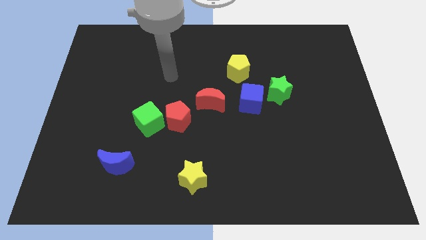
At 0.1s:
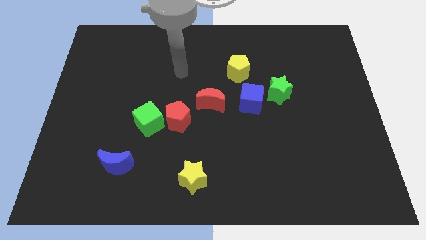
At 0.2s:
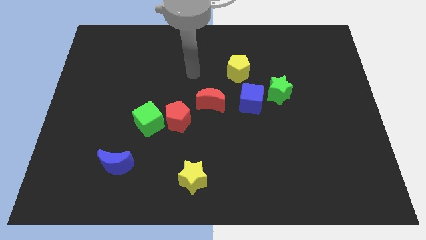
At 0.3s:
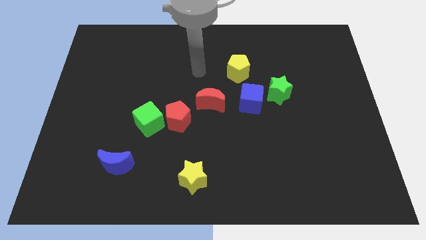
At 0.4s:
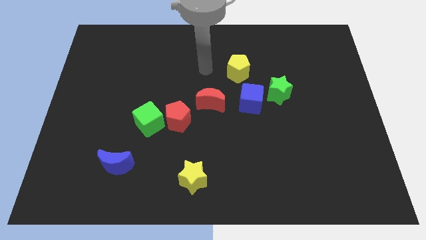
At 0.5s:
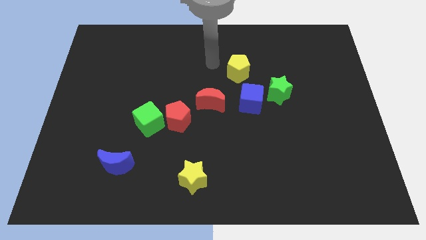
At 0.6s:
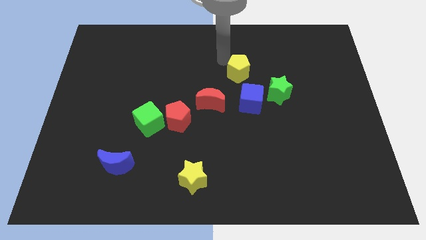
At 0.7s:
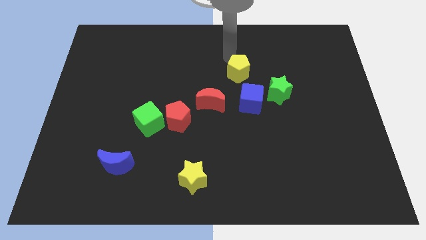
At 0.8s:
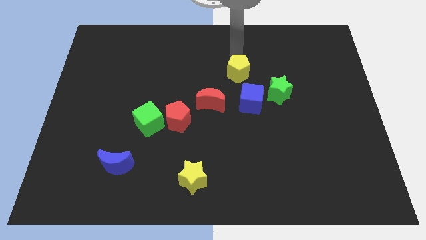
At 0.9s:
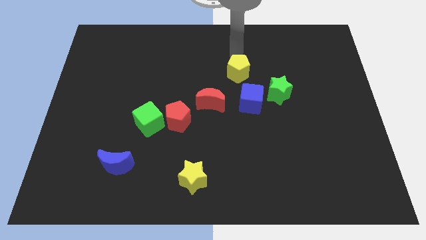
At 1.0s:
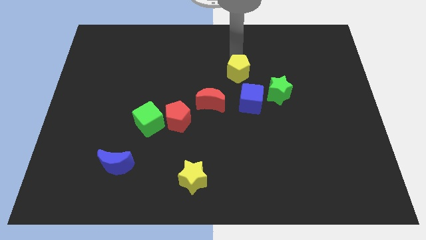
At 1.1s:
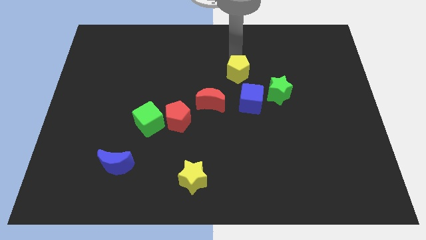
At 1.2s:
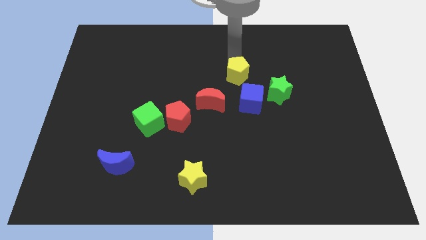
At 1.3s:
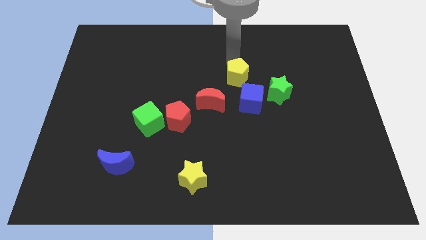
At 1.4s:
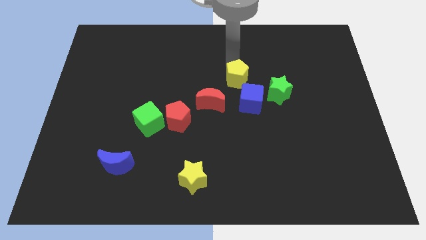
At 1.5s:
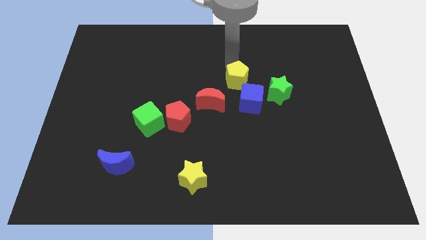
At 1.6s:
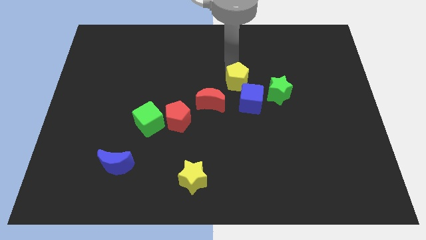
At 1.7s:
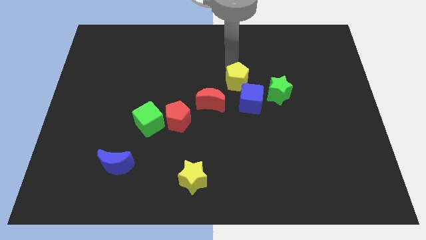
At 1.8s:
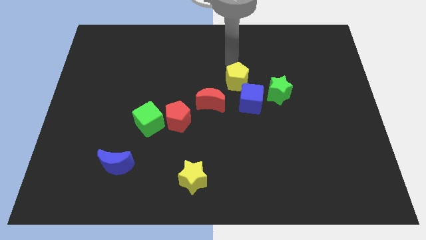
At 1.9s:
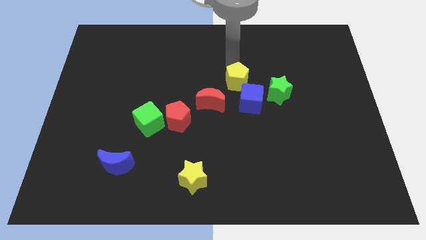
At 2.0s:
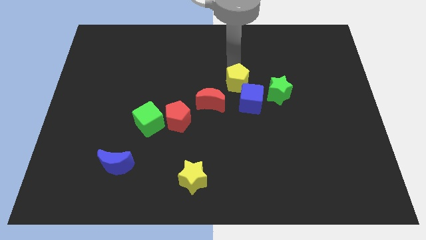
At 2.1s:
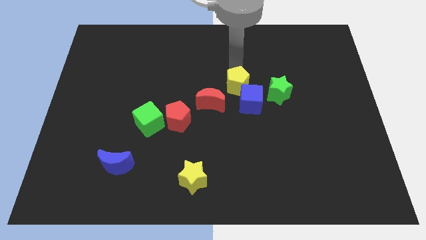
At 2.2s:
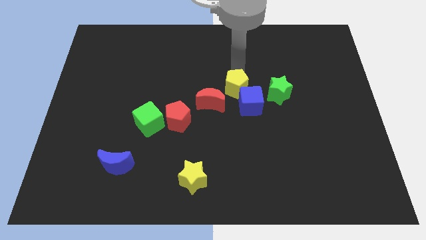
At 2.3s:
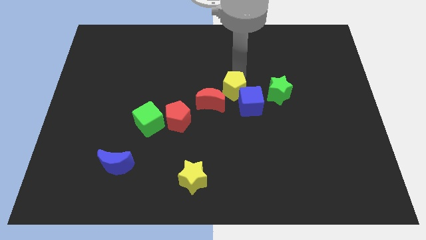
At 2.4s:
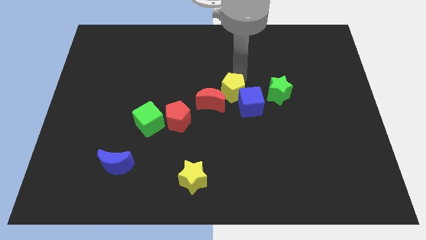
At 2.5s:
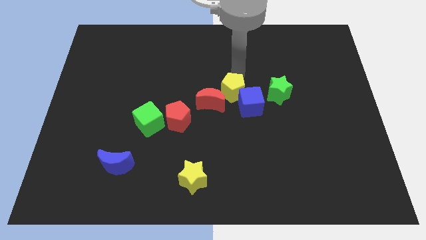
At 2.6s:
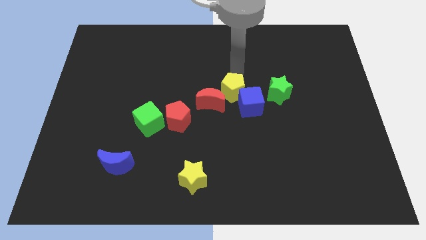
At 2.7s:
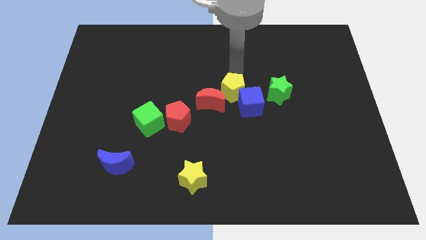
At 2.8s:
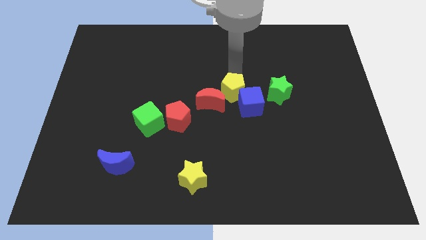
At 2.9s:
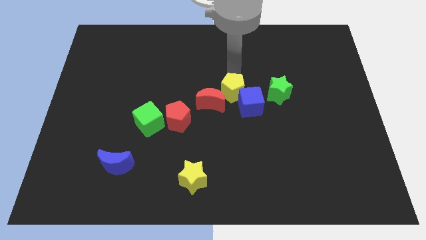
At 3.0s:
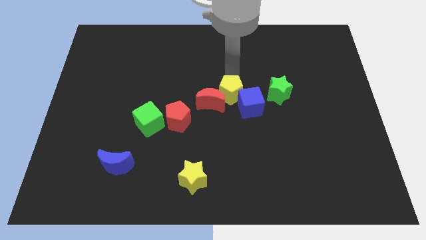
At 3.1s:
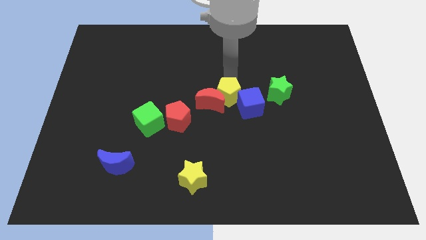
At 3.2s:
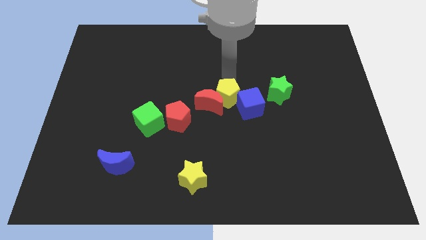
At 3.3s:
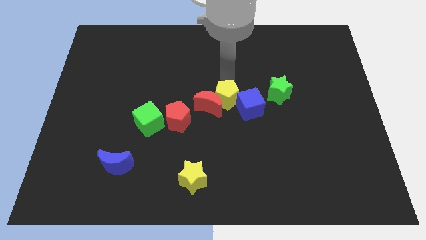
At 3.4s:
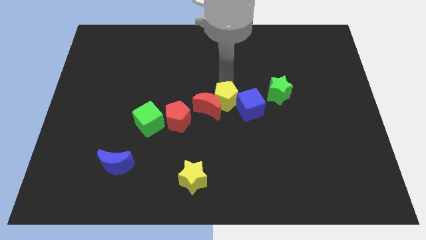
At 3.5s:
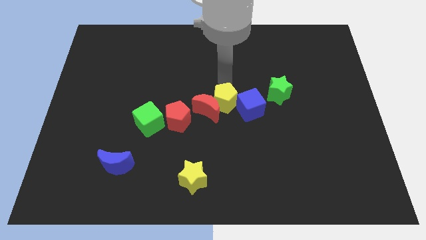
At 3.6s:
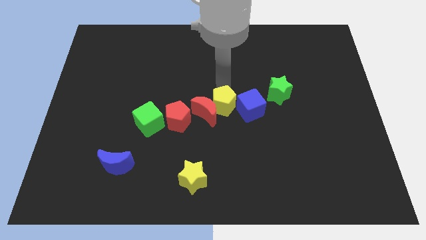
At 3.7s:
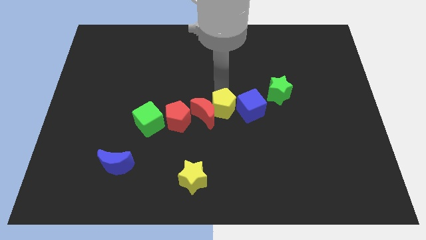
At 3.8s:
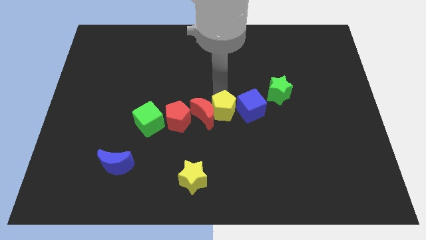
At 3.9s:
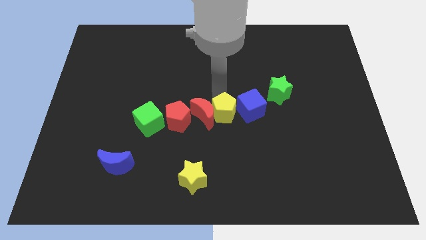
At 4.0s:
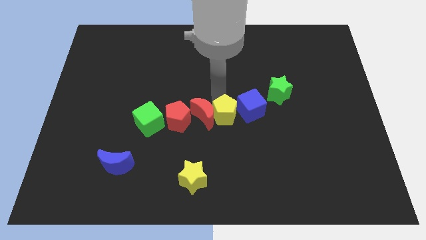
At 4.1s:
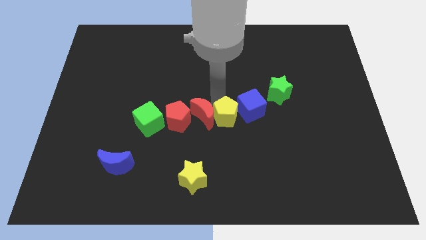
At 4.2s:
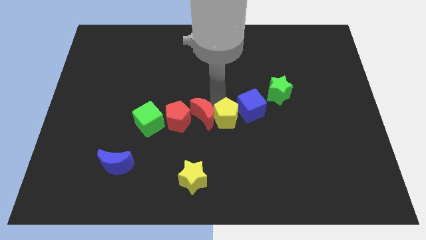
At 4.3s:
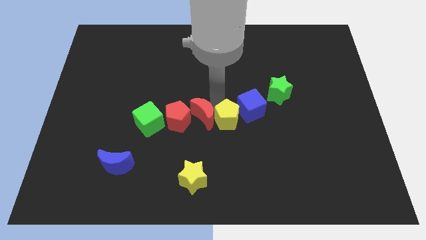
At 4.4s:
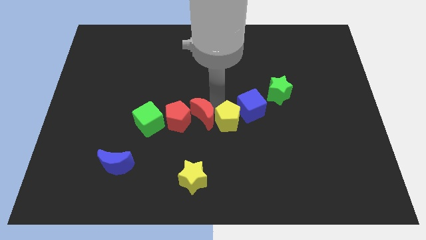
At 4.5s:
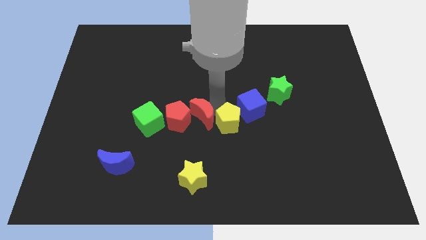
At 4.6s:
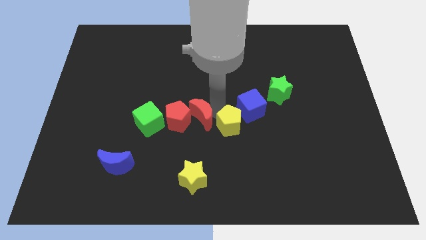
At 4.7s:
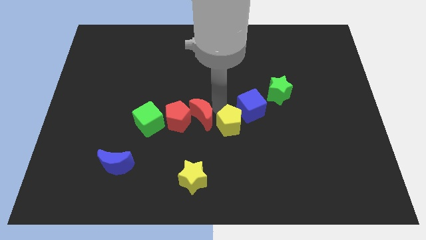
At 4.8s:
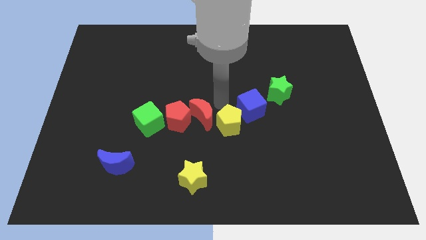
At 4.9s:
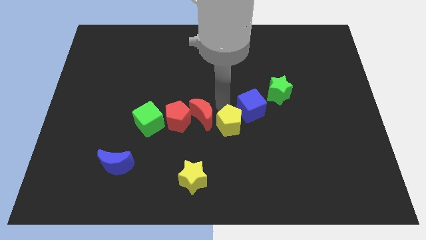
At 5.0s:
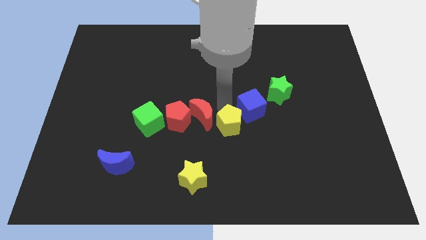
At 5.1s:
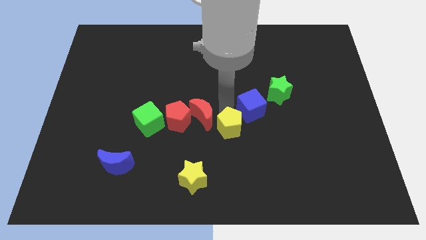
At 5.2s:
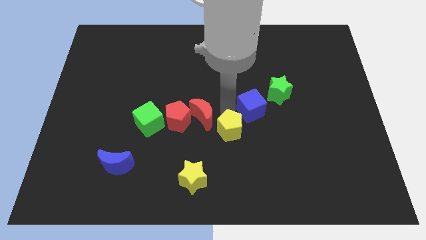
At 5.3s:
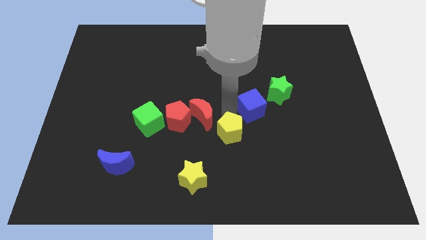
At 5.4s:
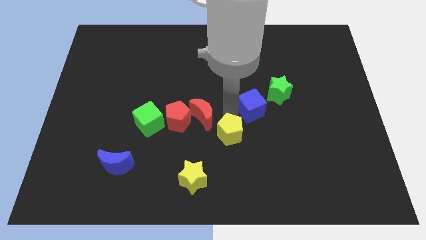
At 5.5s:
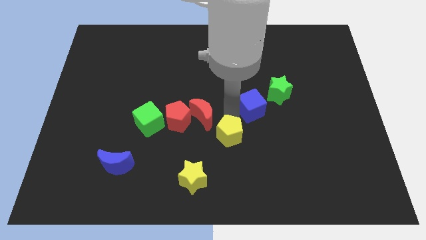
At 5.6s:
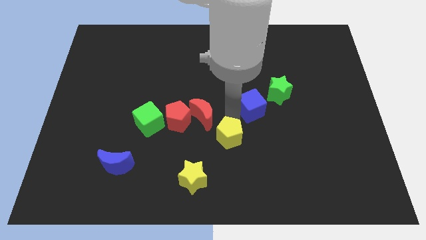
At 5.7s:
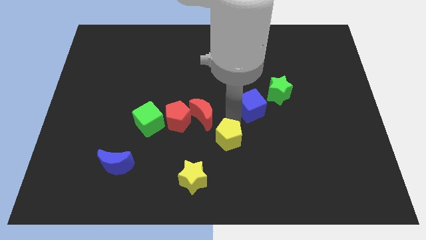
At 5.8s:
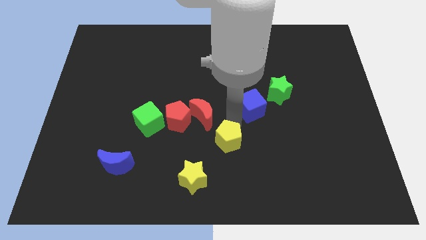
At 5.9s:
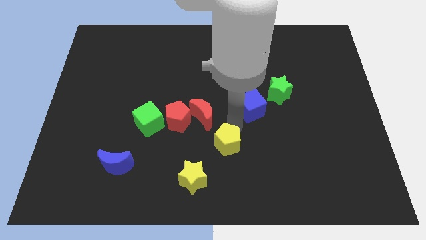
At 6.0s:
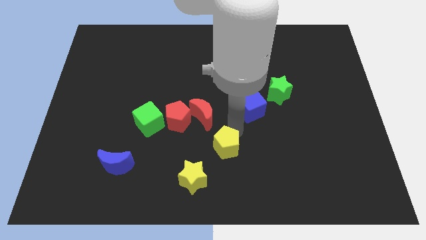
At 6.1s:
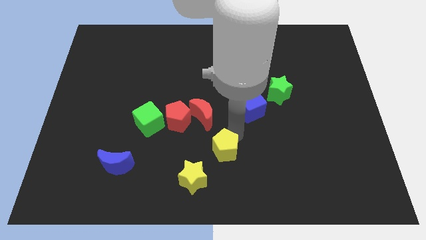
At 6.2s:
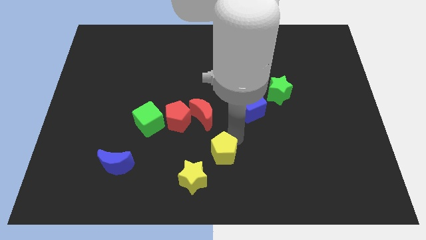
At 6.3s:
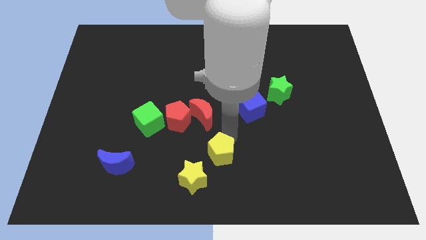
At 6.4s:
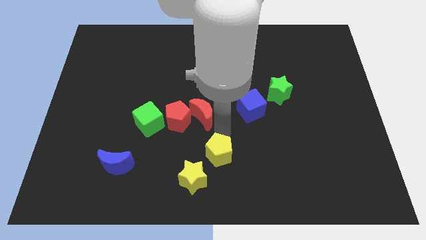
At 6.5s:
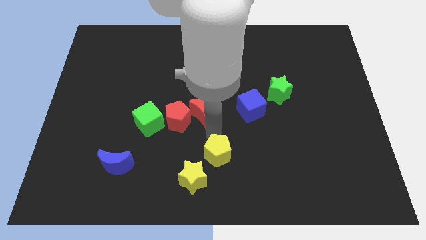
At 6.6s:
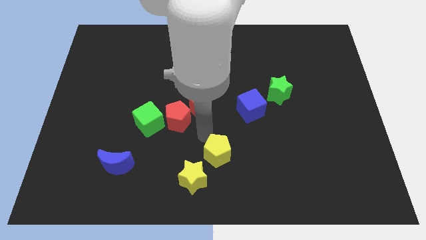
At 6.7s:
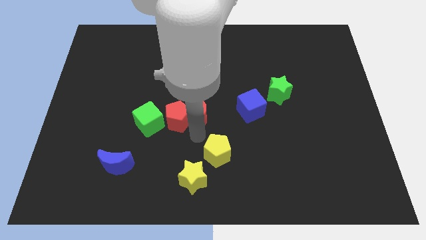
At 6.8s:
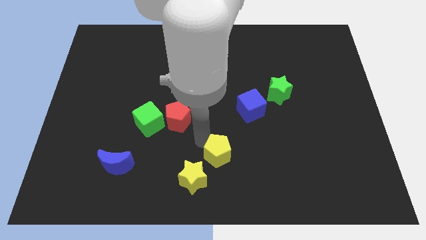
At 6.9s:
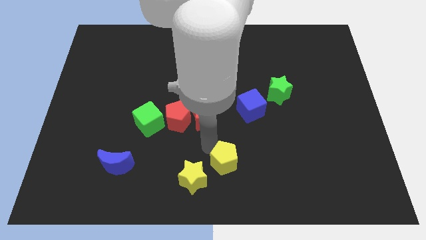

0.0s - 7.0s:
push the yellow pentagon to the right side of the yellow star
